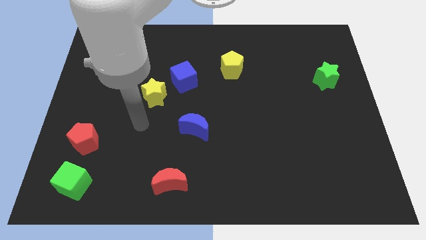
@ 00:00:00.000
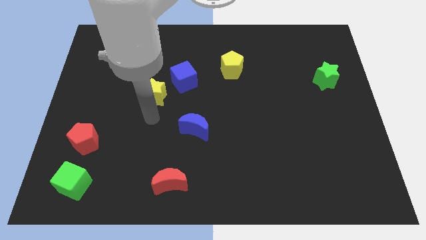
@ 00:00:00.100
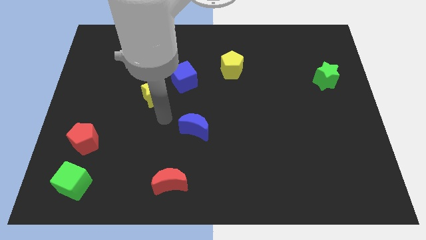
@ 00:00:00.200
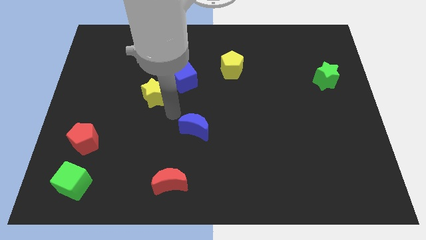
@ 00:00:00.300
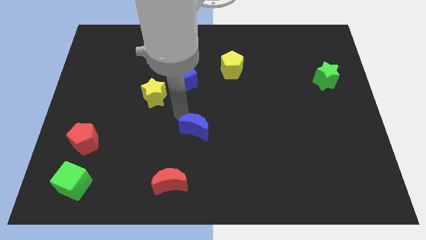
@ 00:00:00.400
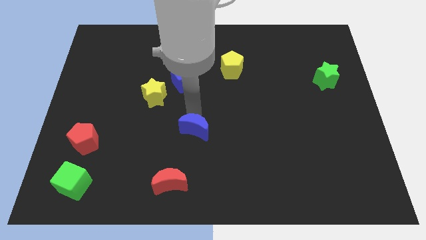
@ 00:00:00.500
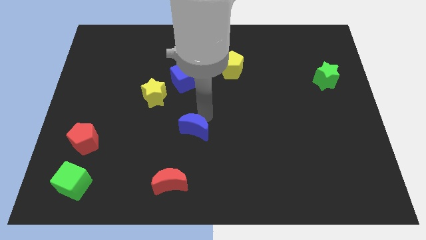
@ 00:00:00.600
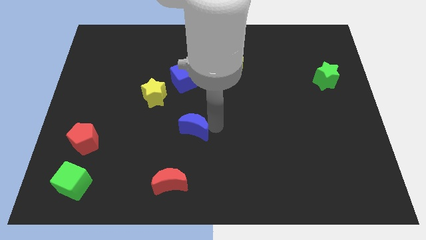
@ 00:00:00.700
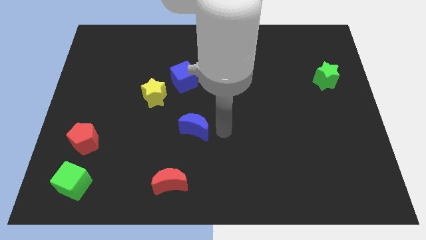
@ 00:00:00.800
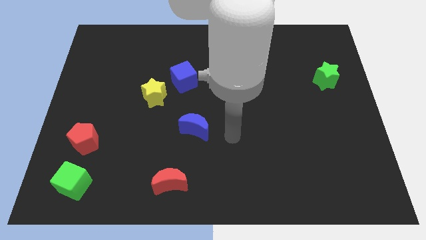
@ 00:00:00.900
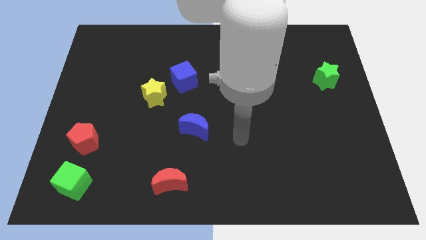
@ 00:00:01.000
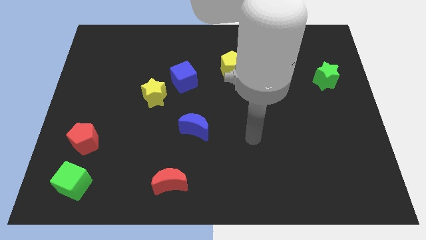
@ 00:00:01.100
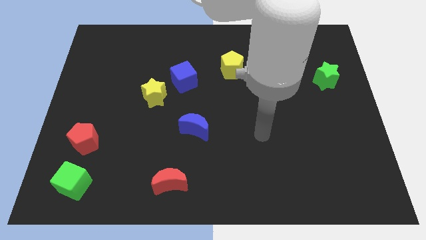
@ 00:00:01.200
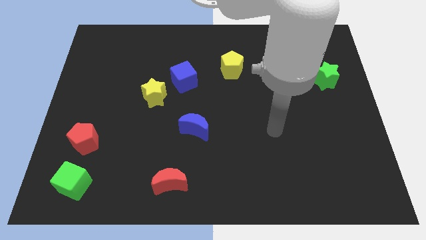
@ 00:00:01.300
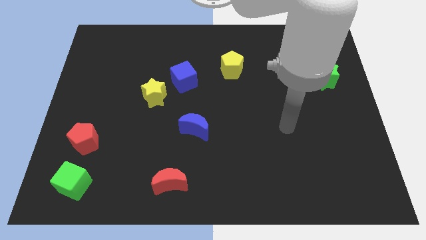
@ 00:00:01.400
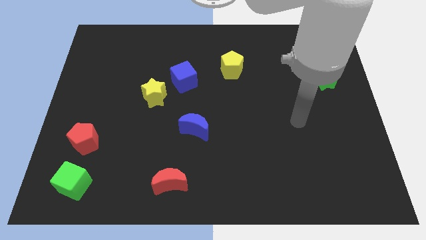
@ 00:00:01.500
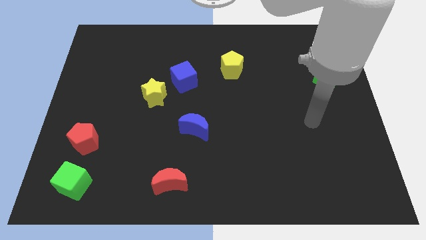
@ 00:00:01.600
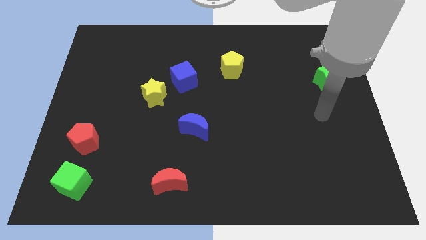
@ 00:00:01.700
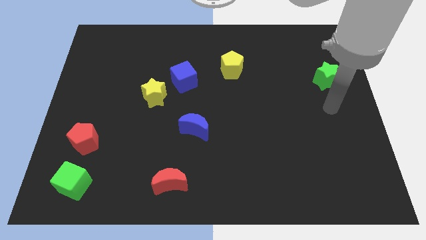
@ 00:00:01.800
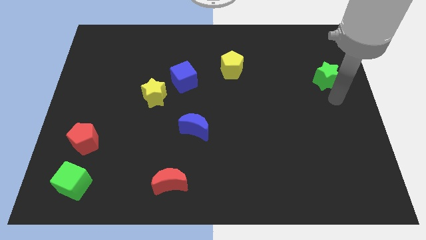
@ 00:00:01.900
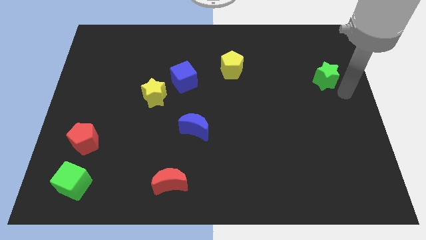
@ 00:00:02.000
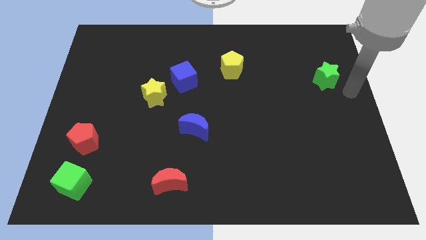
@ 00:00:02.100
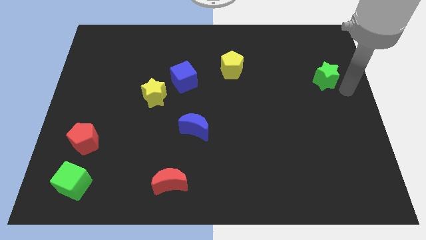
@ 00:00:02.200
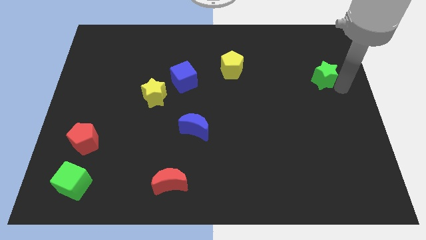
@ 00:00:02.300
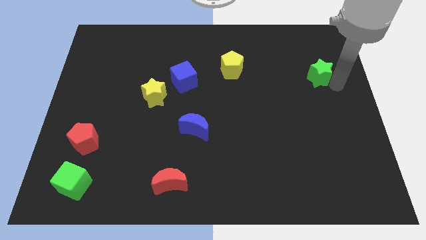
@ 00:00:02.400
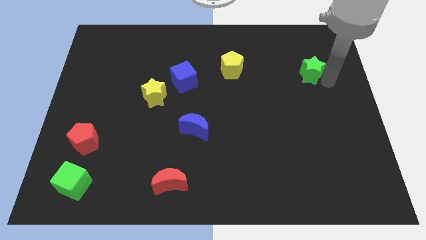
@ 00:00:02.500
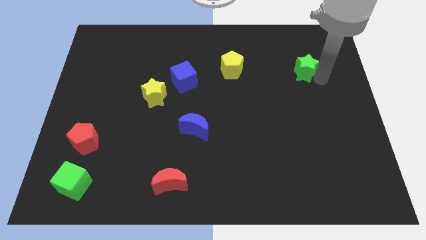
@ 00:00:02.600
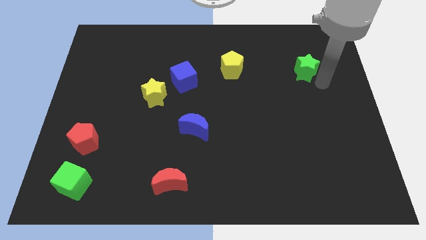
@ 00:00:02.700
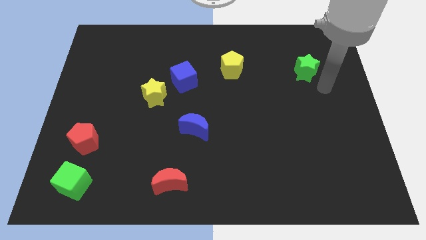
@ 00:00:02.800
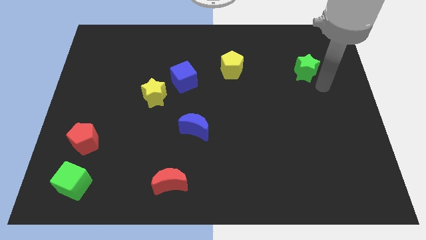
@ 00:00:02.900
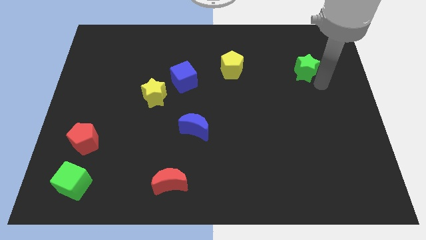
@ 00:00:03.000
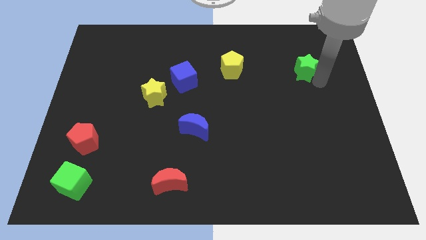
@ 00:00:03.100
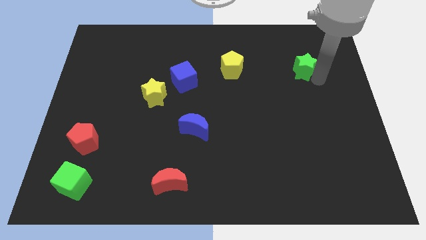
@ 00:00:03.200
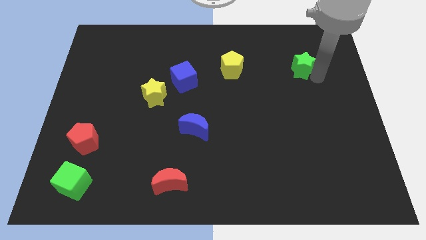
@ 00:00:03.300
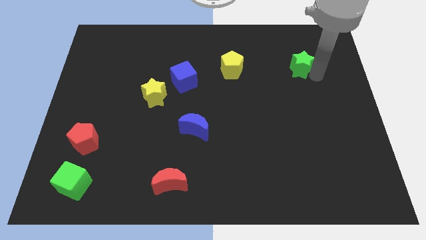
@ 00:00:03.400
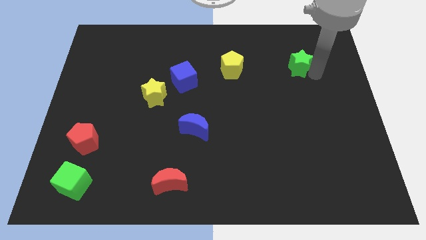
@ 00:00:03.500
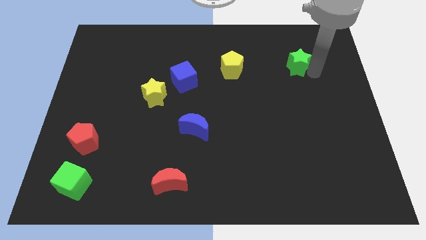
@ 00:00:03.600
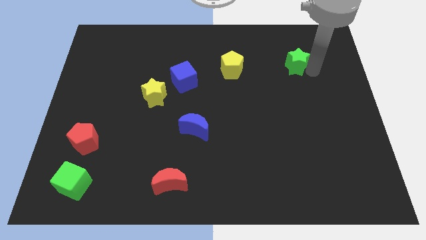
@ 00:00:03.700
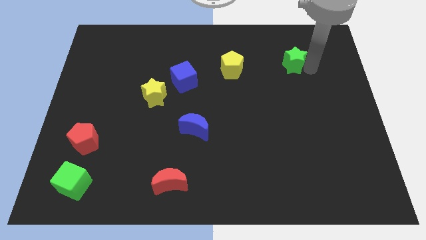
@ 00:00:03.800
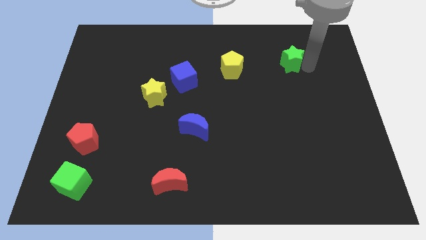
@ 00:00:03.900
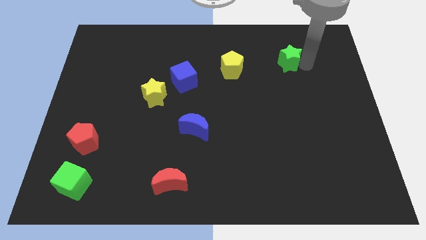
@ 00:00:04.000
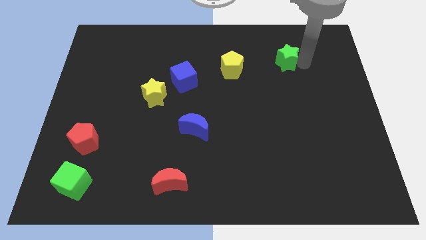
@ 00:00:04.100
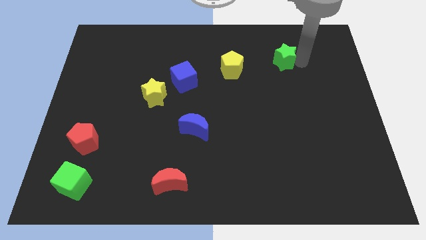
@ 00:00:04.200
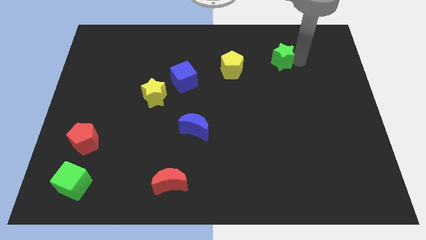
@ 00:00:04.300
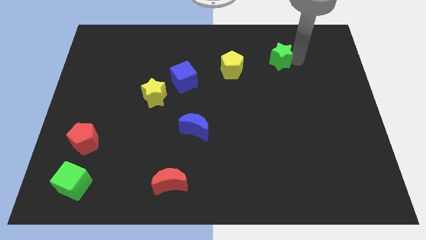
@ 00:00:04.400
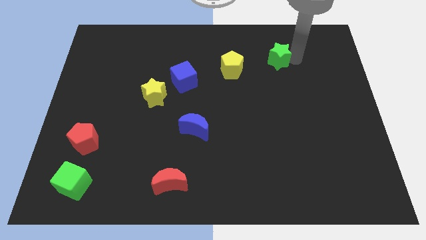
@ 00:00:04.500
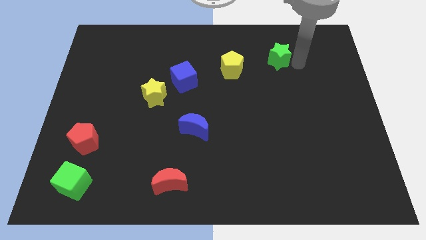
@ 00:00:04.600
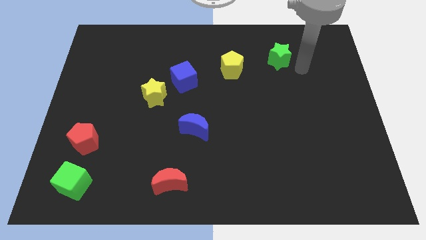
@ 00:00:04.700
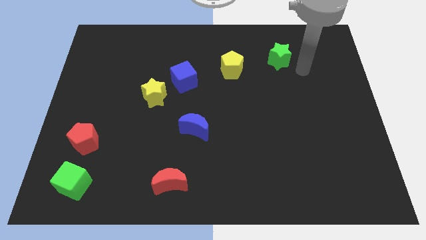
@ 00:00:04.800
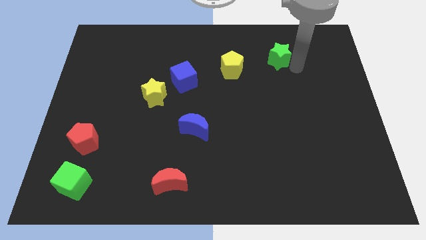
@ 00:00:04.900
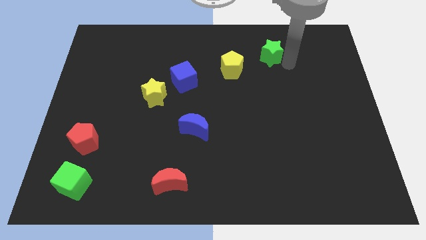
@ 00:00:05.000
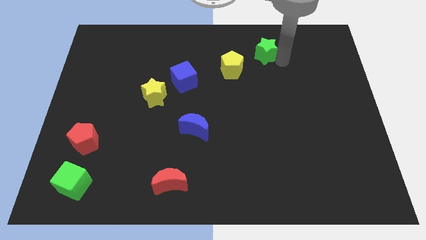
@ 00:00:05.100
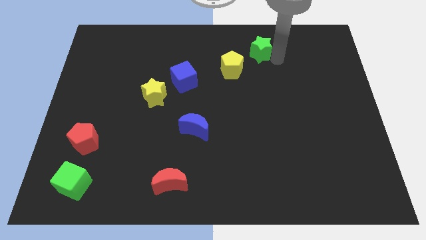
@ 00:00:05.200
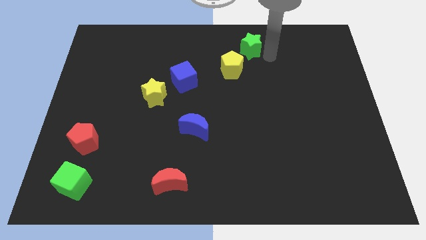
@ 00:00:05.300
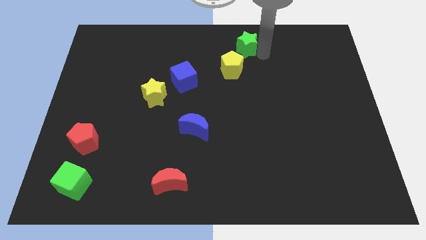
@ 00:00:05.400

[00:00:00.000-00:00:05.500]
slide the green star to the towards your base
